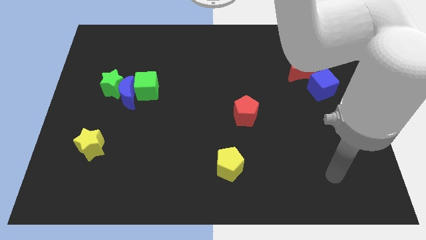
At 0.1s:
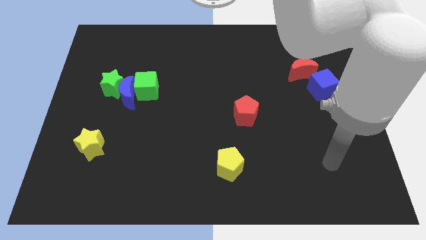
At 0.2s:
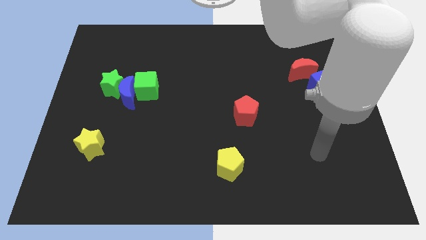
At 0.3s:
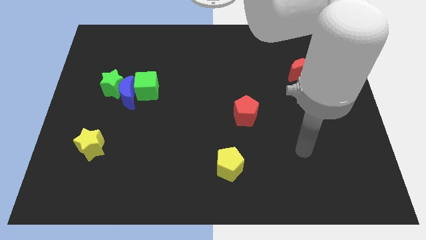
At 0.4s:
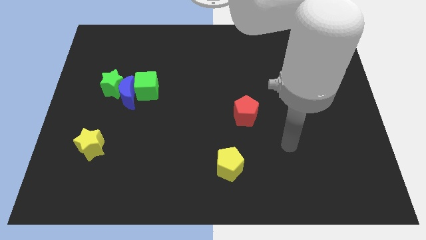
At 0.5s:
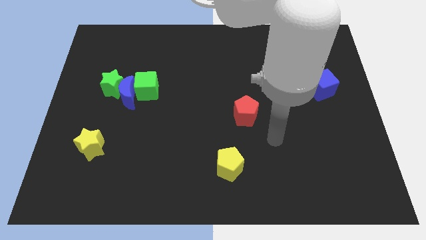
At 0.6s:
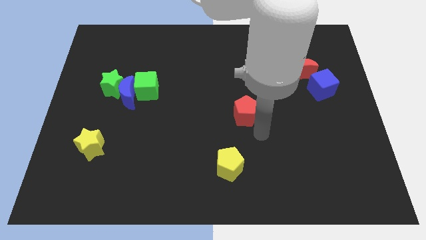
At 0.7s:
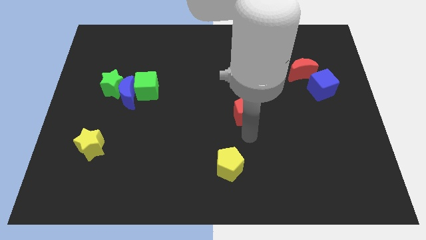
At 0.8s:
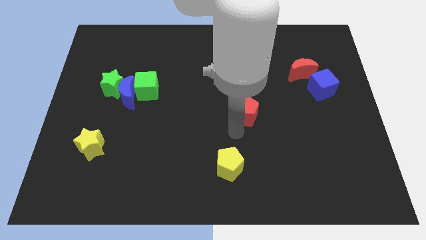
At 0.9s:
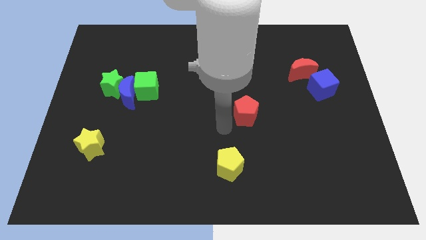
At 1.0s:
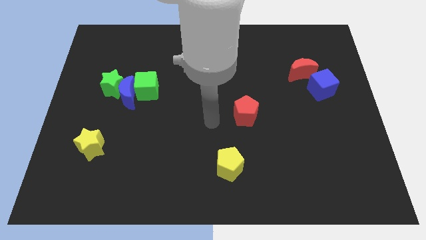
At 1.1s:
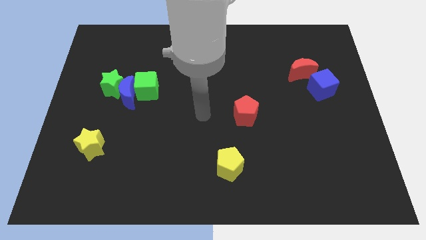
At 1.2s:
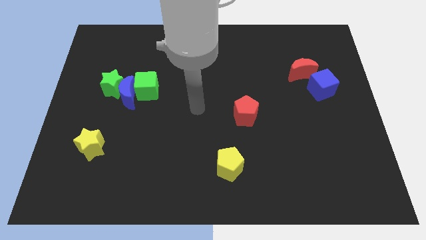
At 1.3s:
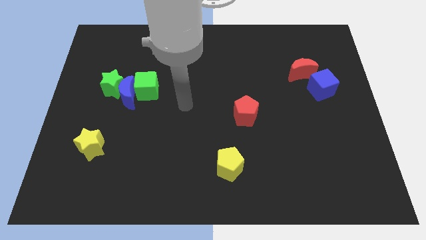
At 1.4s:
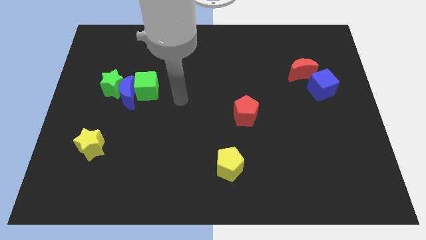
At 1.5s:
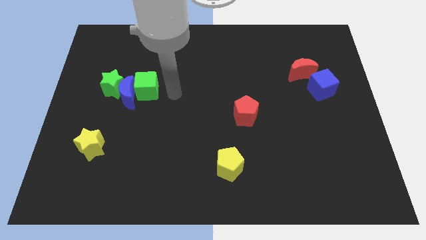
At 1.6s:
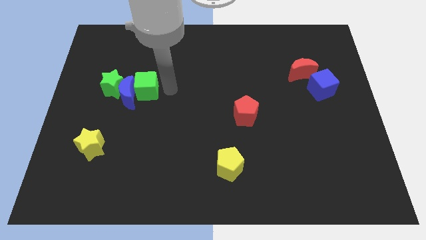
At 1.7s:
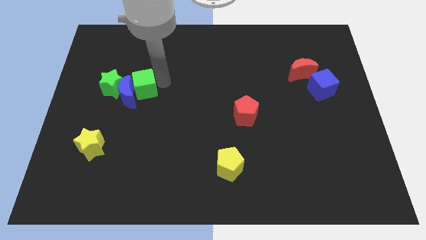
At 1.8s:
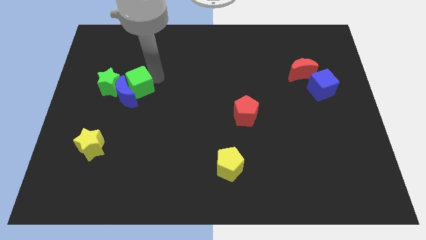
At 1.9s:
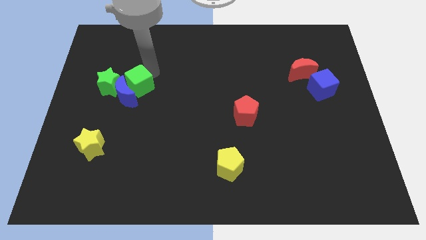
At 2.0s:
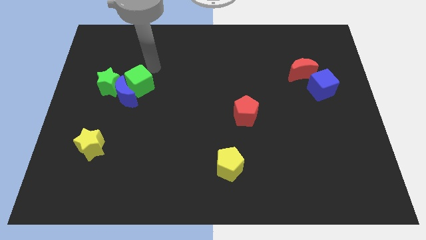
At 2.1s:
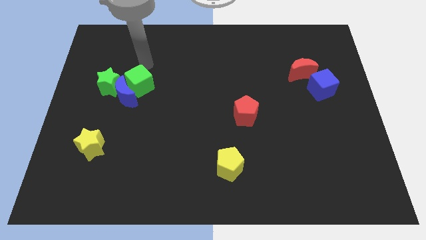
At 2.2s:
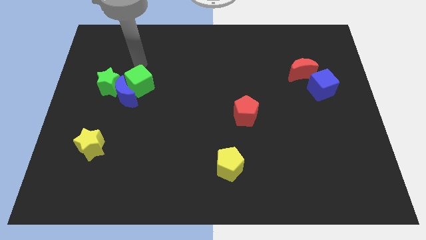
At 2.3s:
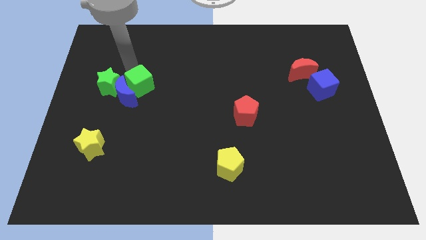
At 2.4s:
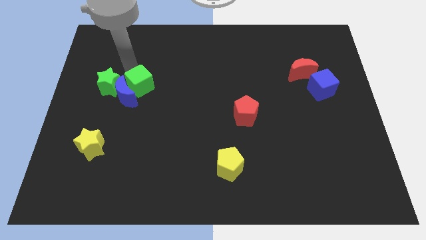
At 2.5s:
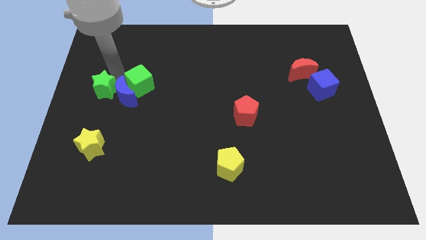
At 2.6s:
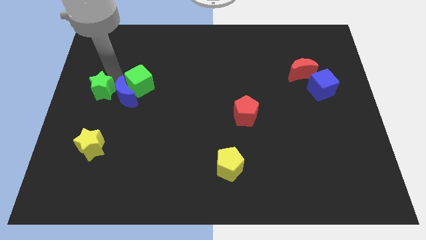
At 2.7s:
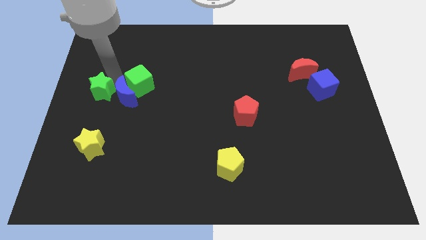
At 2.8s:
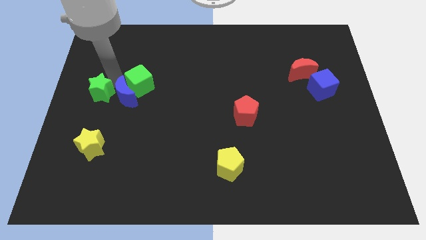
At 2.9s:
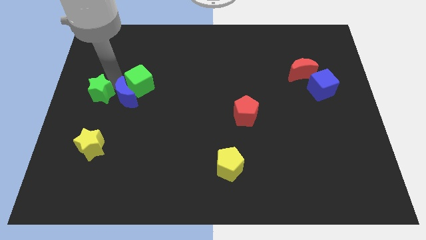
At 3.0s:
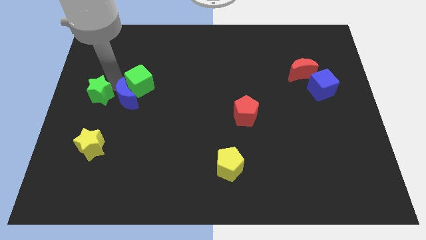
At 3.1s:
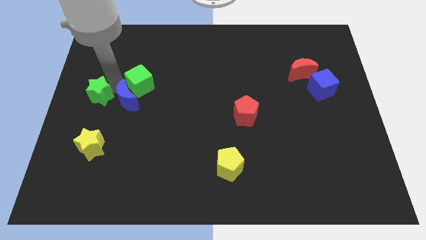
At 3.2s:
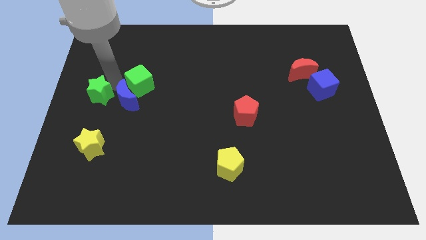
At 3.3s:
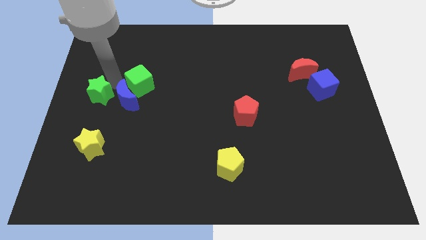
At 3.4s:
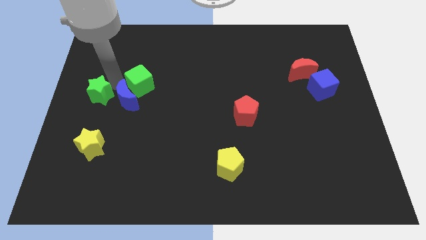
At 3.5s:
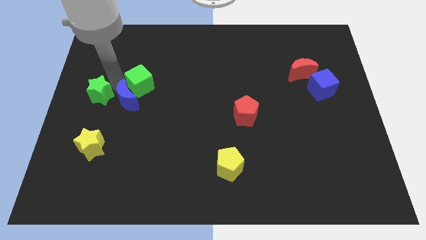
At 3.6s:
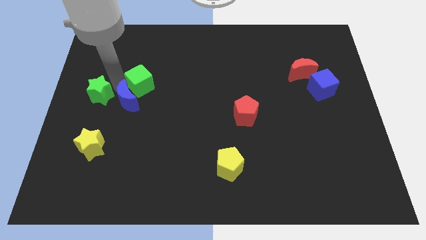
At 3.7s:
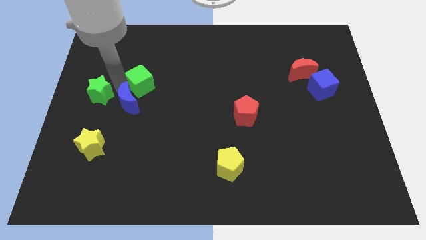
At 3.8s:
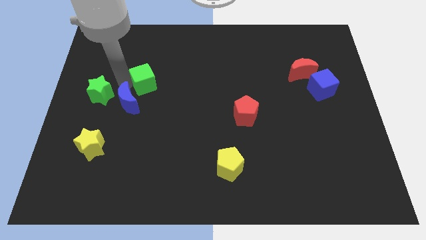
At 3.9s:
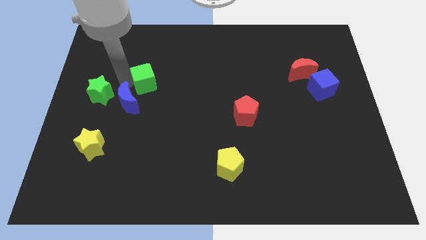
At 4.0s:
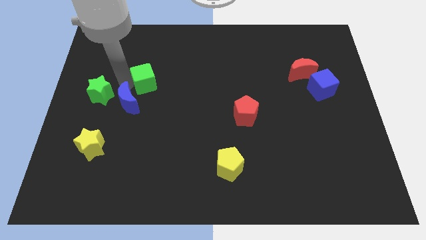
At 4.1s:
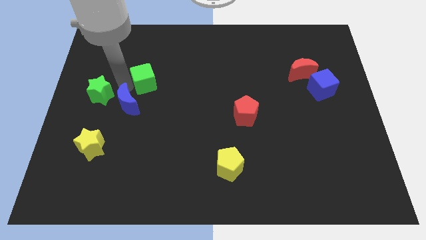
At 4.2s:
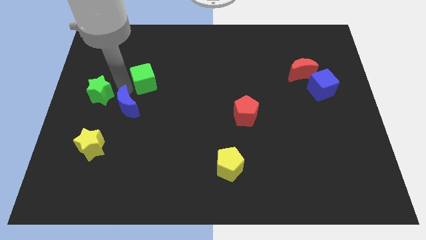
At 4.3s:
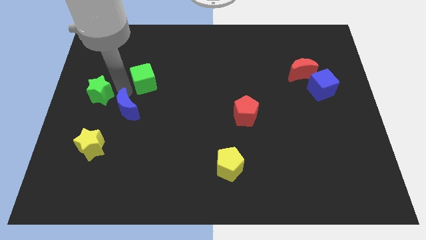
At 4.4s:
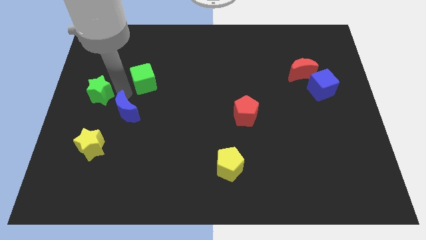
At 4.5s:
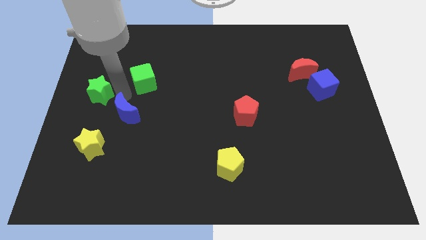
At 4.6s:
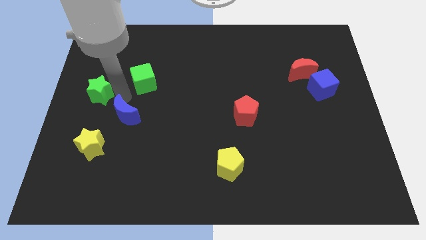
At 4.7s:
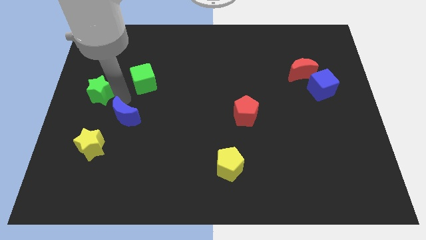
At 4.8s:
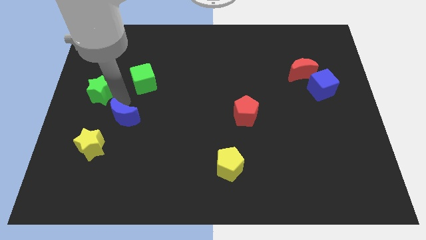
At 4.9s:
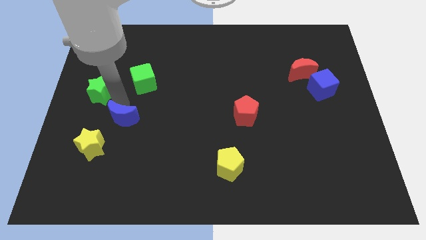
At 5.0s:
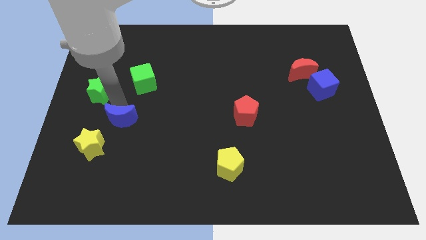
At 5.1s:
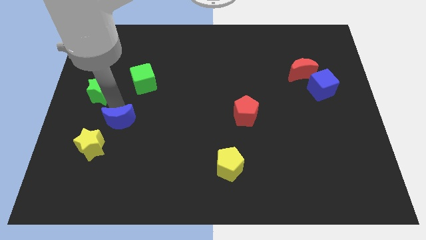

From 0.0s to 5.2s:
pull the blue moon apart from the green star and green cube

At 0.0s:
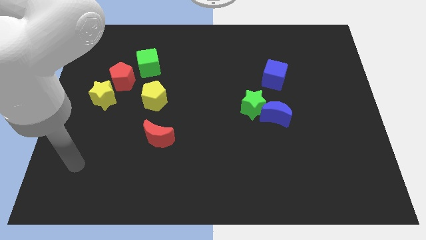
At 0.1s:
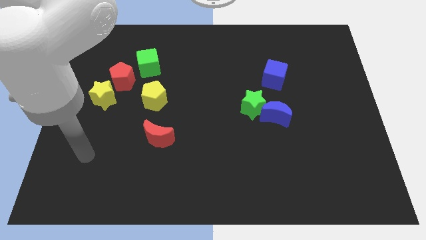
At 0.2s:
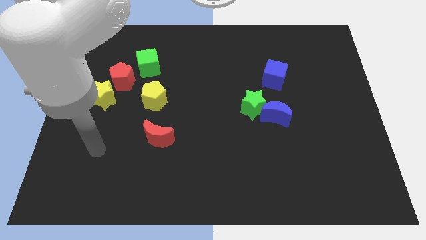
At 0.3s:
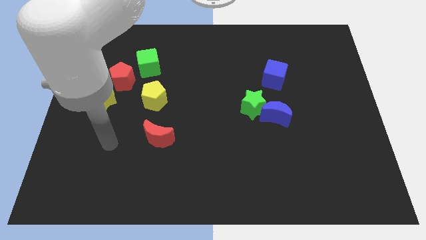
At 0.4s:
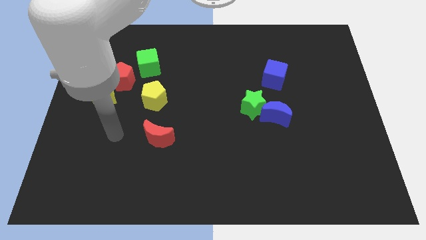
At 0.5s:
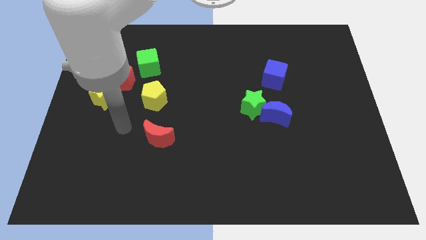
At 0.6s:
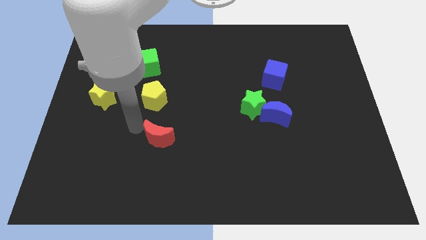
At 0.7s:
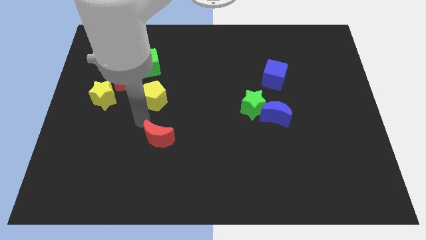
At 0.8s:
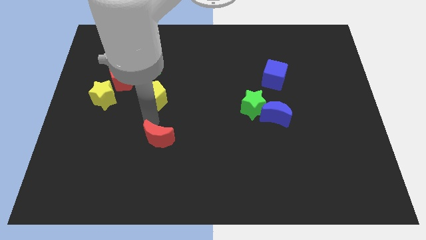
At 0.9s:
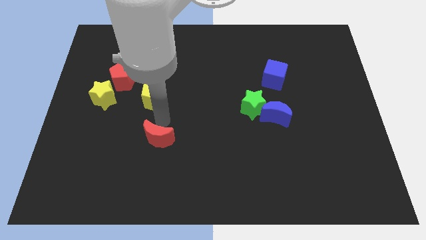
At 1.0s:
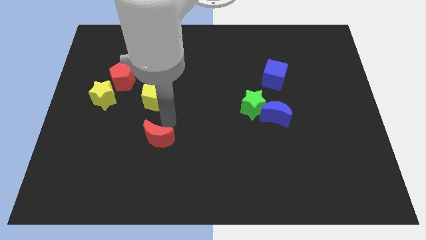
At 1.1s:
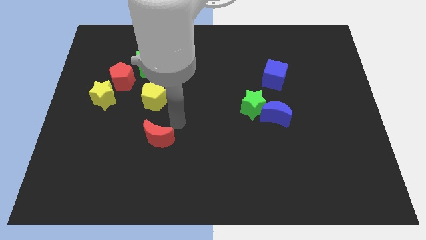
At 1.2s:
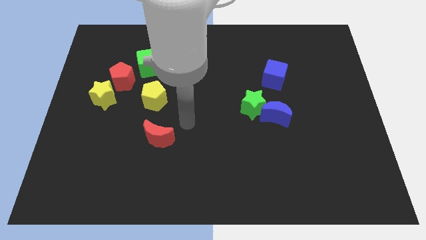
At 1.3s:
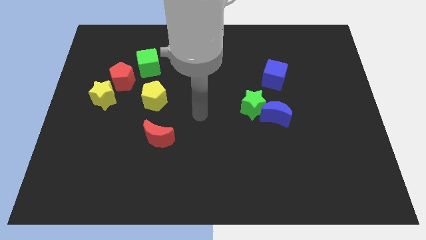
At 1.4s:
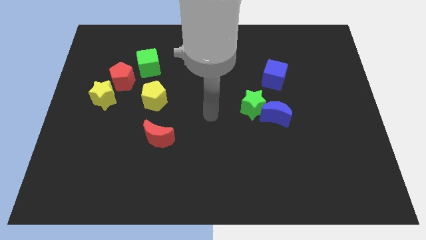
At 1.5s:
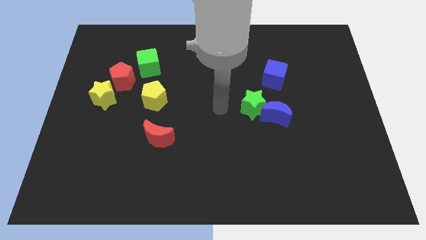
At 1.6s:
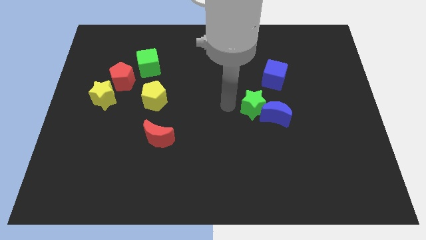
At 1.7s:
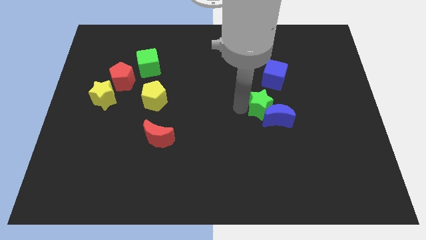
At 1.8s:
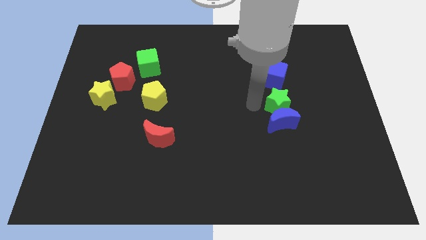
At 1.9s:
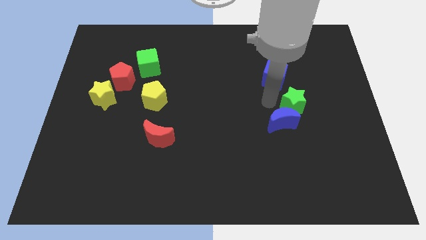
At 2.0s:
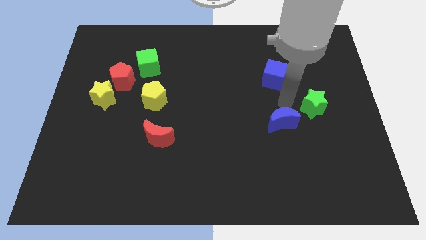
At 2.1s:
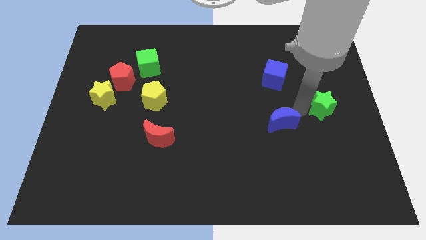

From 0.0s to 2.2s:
move the blue moon away from the green star

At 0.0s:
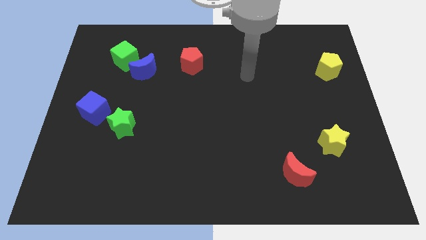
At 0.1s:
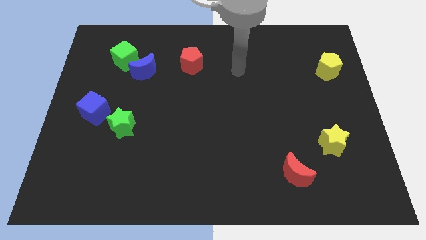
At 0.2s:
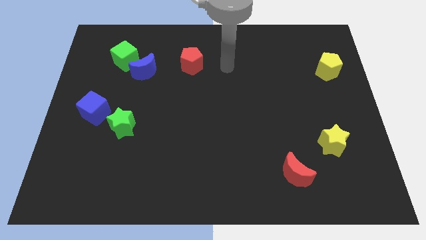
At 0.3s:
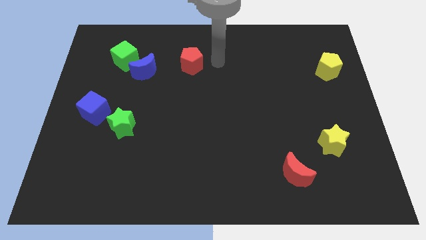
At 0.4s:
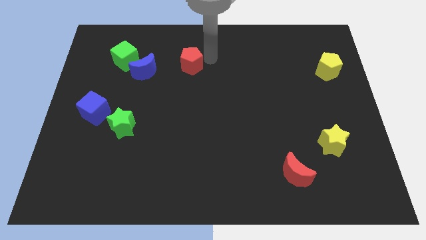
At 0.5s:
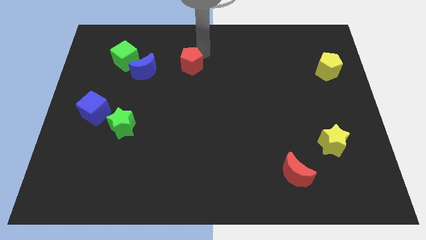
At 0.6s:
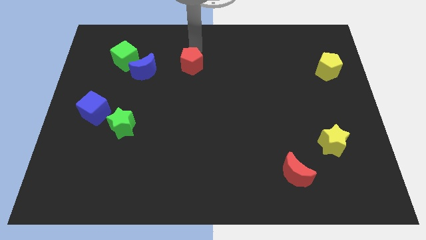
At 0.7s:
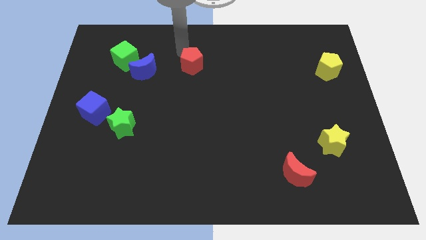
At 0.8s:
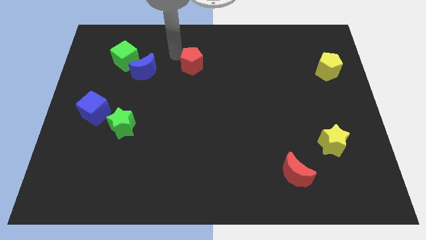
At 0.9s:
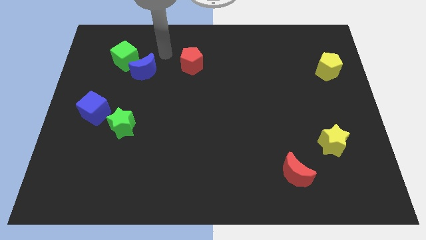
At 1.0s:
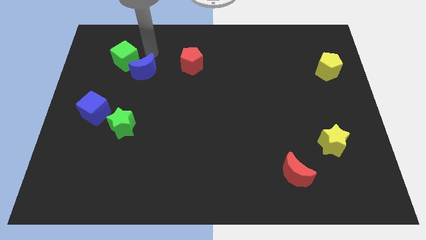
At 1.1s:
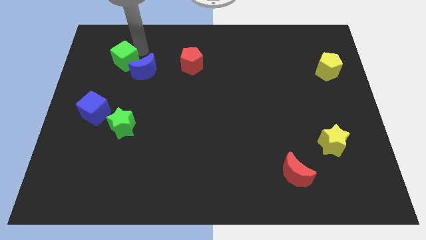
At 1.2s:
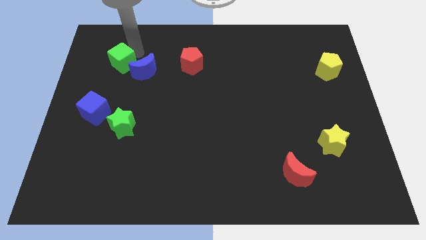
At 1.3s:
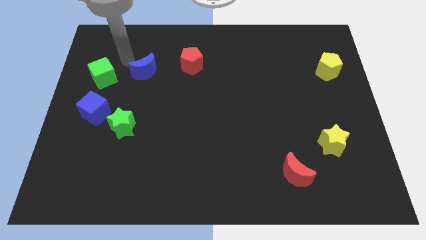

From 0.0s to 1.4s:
separate the blue moon from the green cube

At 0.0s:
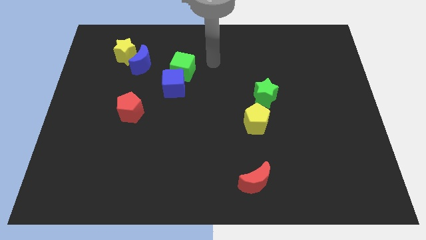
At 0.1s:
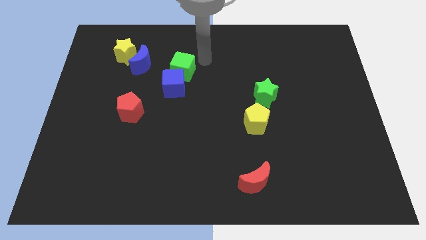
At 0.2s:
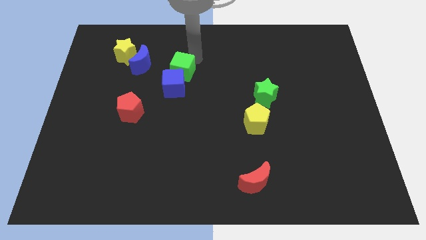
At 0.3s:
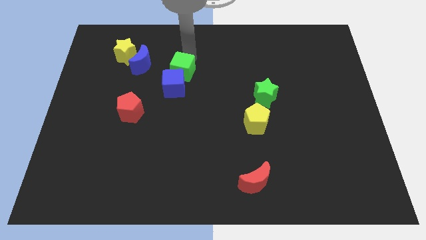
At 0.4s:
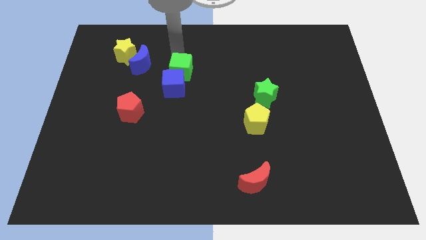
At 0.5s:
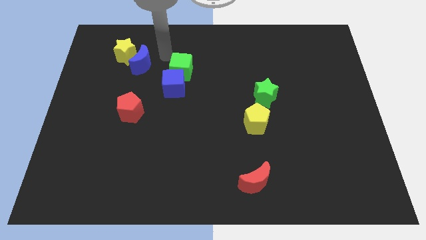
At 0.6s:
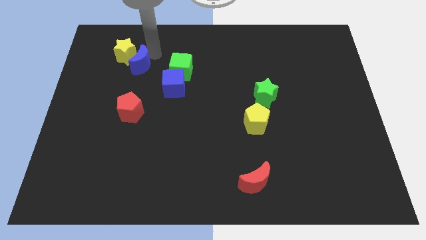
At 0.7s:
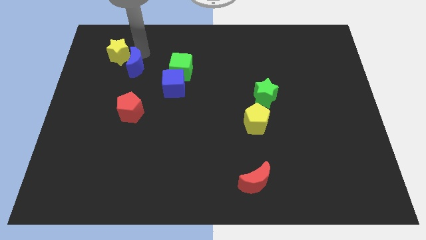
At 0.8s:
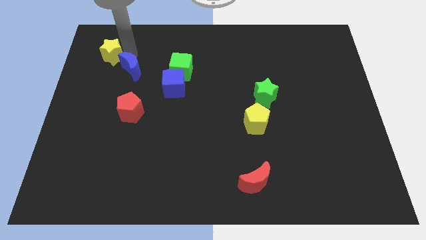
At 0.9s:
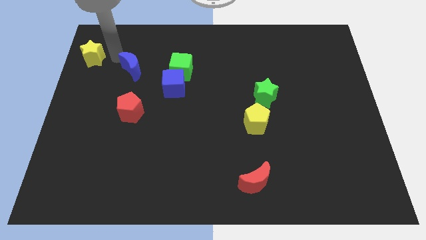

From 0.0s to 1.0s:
separate the blue moon from the yellow star
